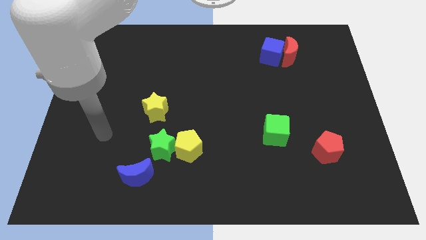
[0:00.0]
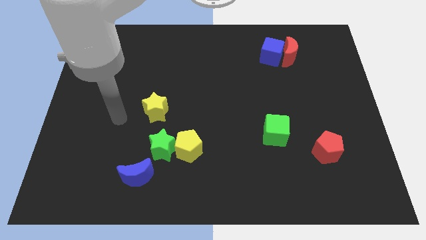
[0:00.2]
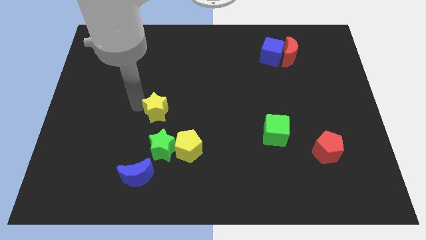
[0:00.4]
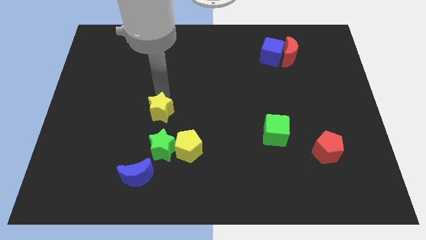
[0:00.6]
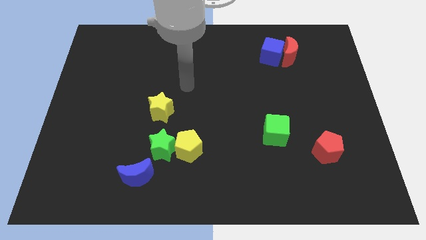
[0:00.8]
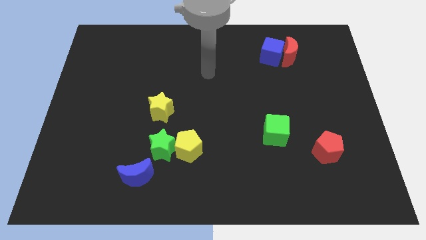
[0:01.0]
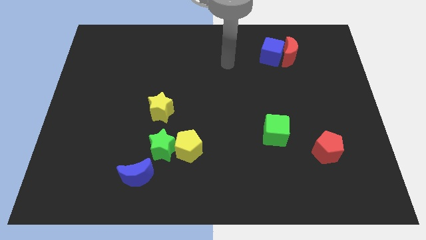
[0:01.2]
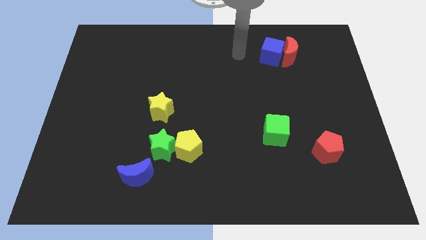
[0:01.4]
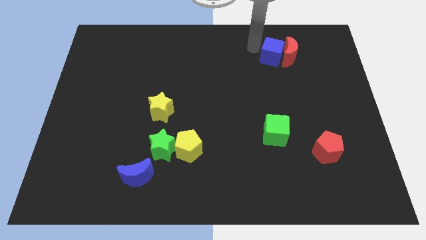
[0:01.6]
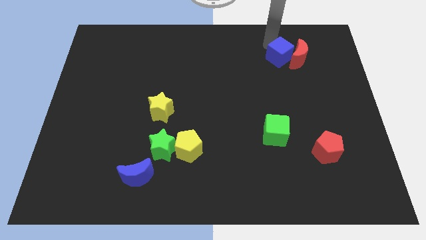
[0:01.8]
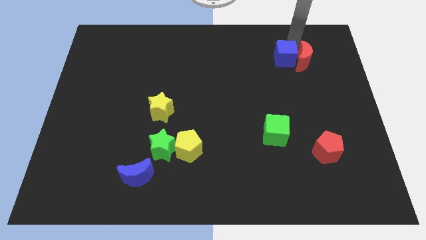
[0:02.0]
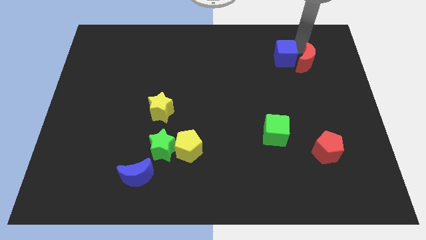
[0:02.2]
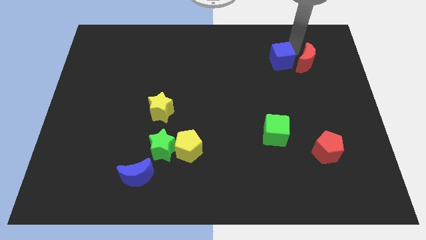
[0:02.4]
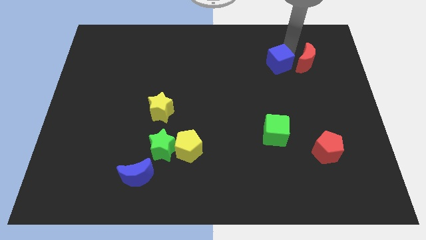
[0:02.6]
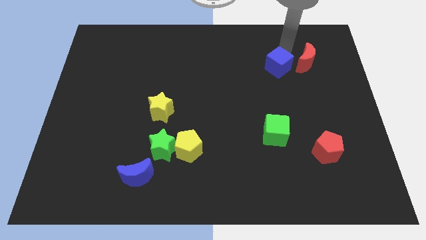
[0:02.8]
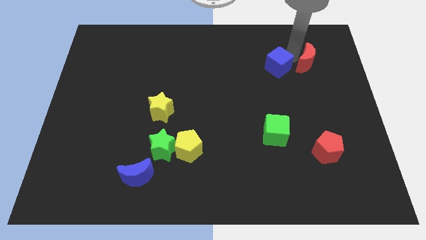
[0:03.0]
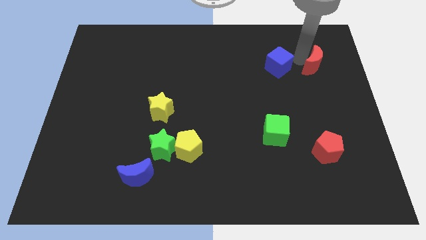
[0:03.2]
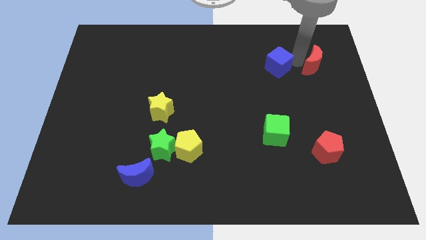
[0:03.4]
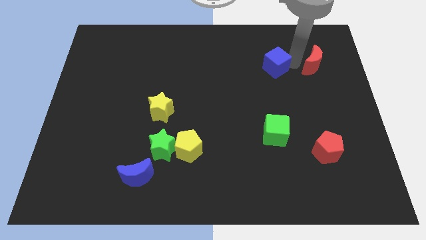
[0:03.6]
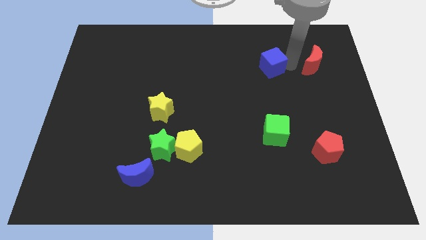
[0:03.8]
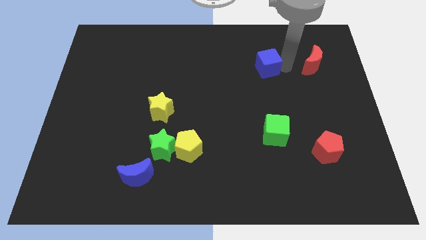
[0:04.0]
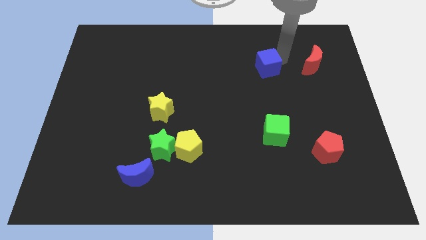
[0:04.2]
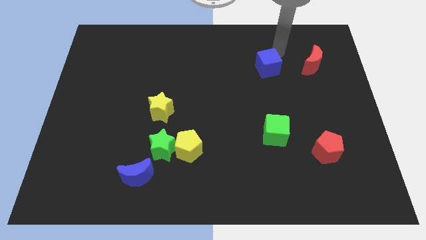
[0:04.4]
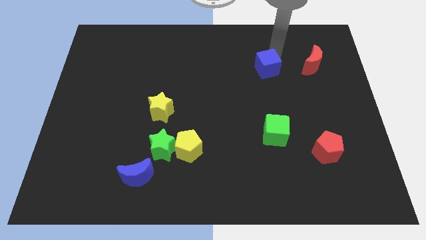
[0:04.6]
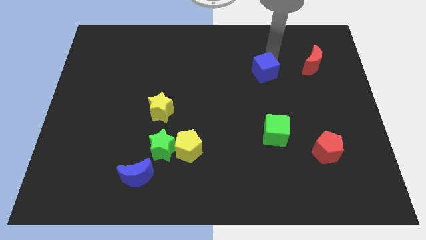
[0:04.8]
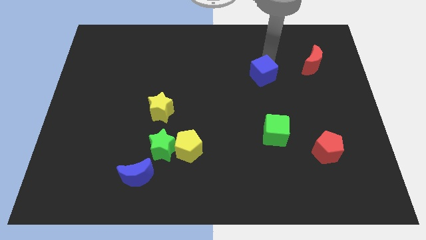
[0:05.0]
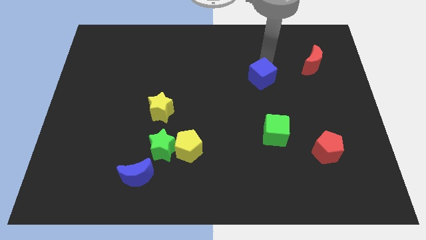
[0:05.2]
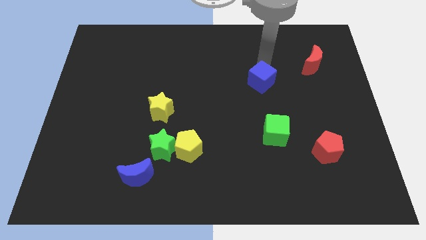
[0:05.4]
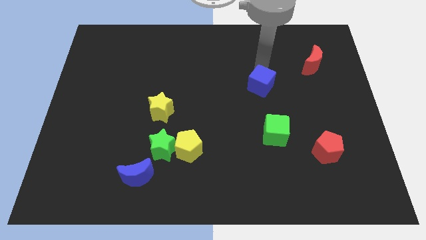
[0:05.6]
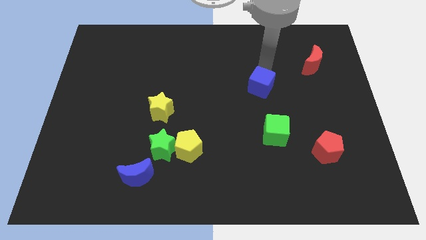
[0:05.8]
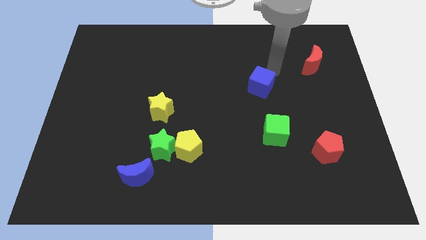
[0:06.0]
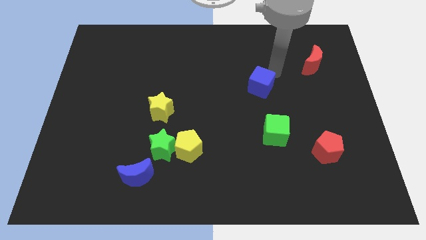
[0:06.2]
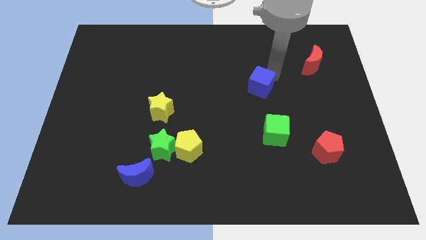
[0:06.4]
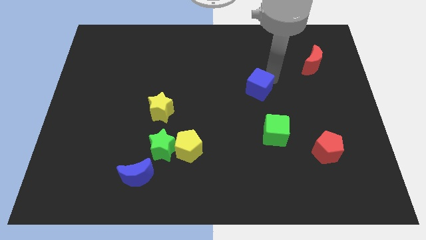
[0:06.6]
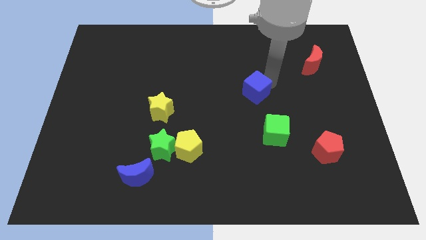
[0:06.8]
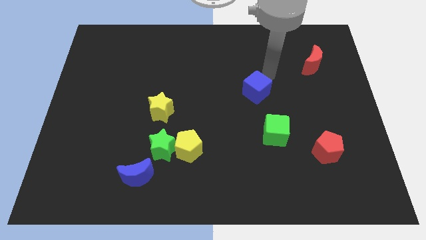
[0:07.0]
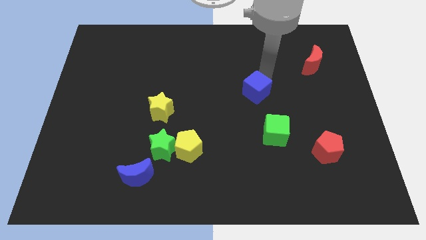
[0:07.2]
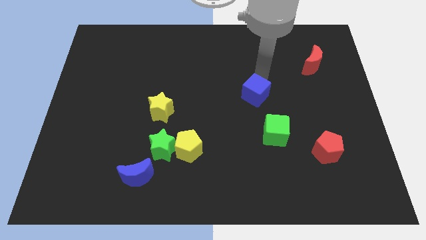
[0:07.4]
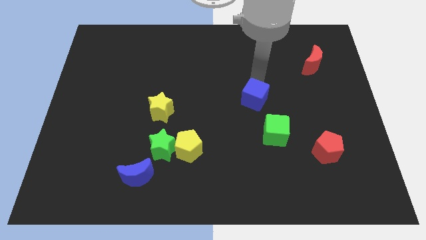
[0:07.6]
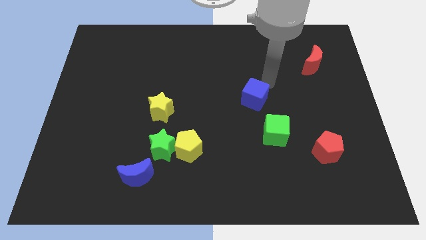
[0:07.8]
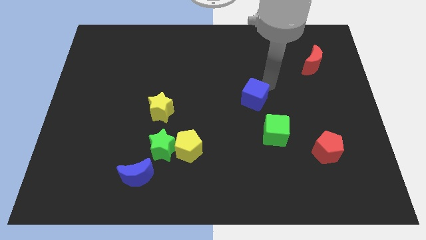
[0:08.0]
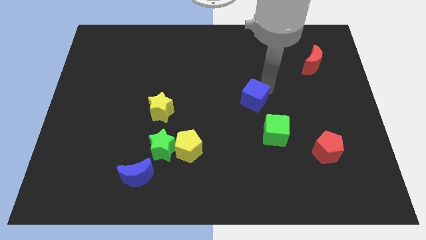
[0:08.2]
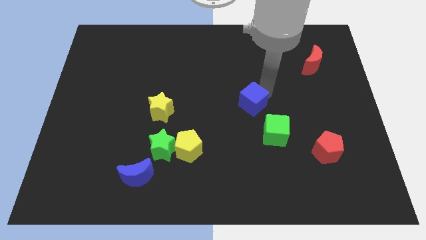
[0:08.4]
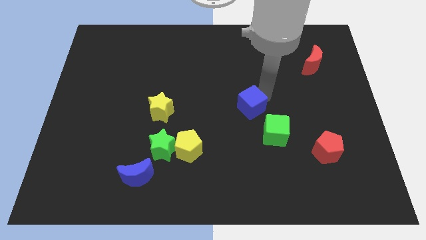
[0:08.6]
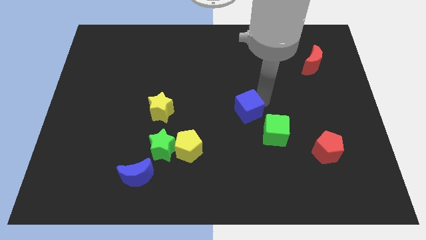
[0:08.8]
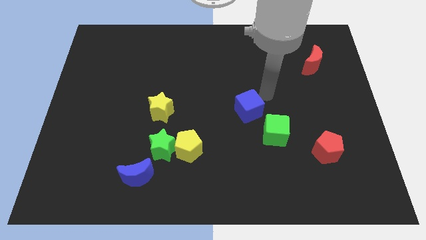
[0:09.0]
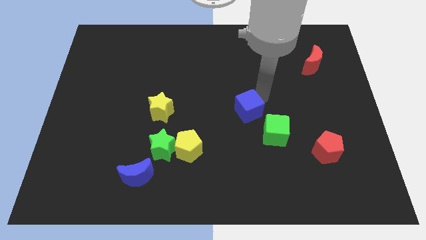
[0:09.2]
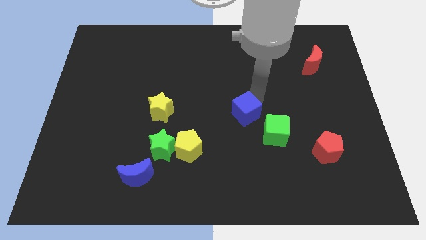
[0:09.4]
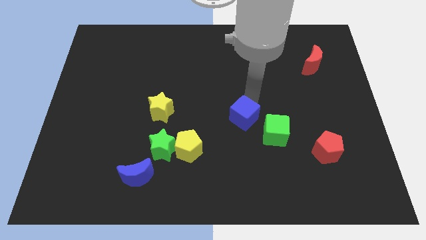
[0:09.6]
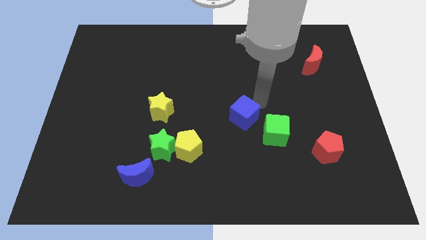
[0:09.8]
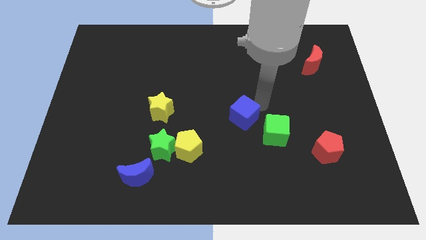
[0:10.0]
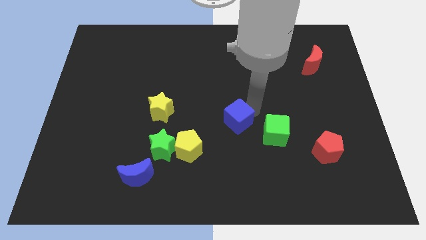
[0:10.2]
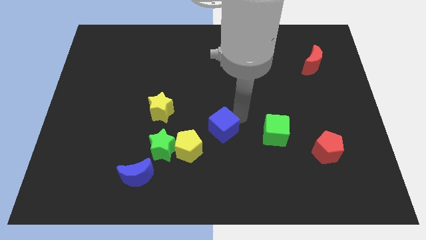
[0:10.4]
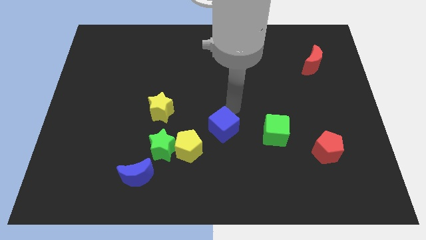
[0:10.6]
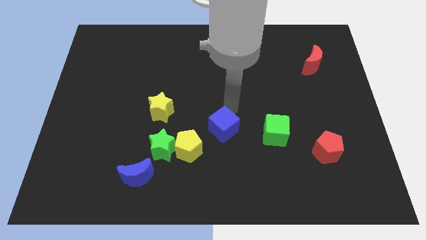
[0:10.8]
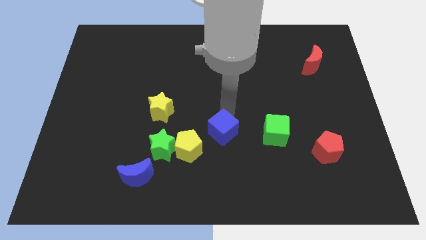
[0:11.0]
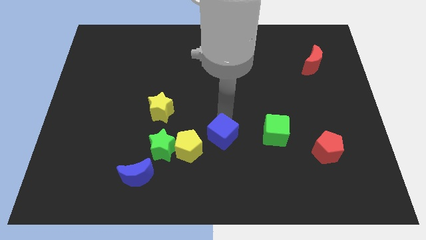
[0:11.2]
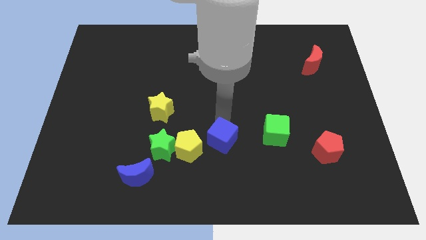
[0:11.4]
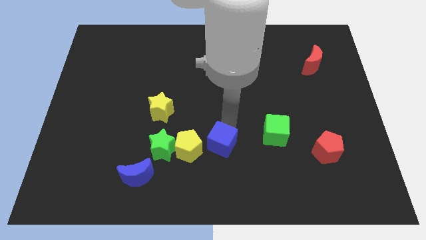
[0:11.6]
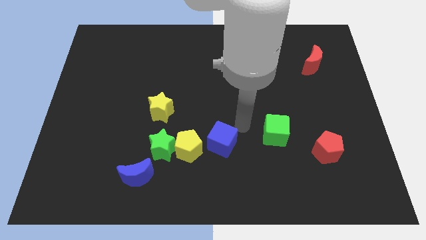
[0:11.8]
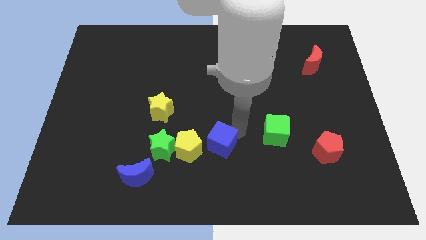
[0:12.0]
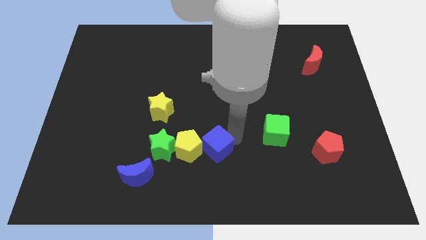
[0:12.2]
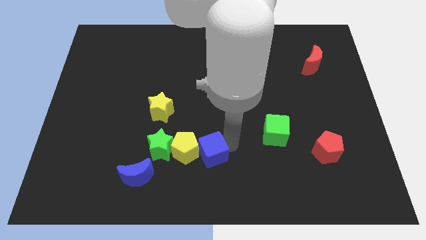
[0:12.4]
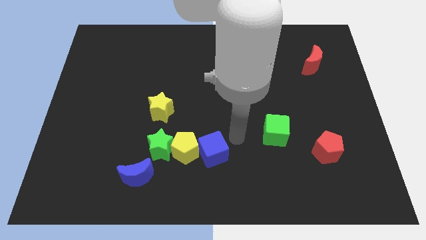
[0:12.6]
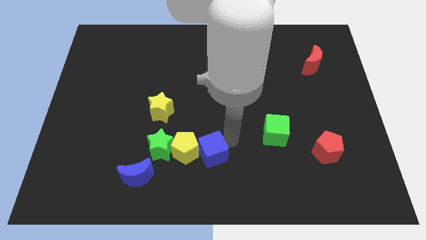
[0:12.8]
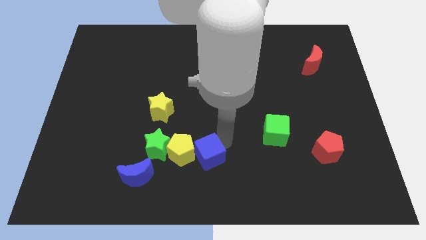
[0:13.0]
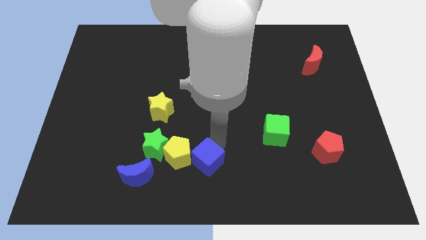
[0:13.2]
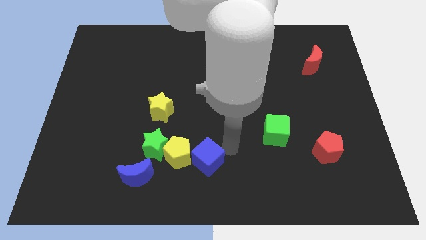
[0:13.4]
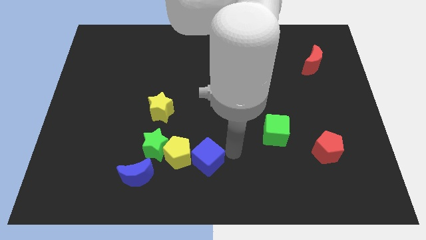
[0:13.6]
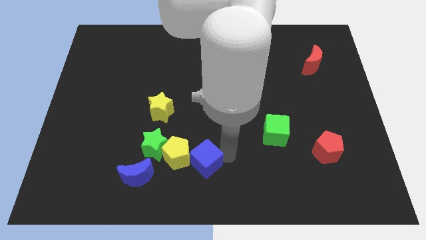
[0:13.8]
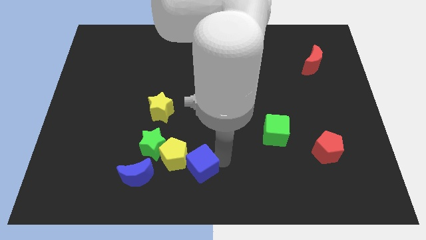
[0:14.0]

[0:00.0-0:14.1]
push the blue cube diagonally down and to the right of the green star
